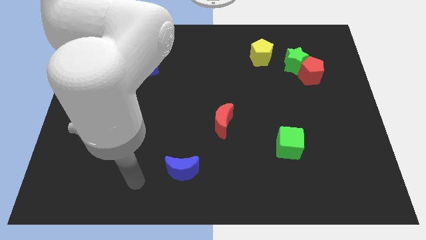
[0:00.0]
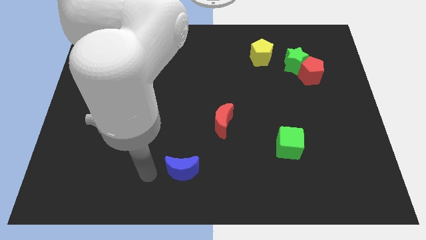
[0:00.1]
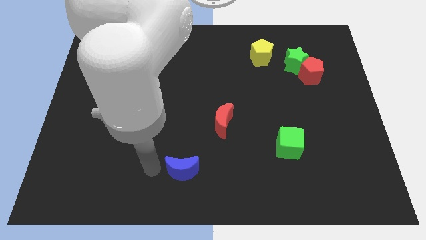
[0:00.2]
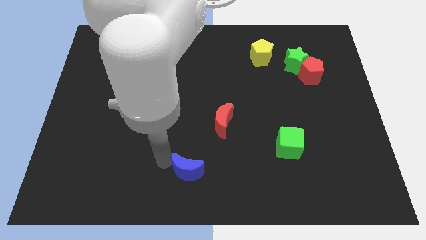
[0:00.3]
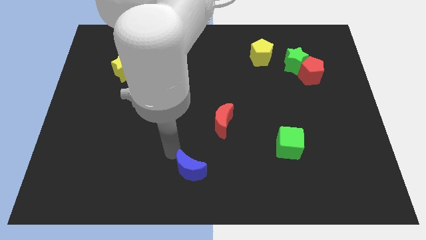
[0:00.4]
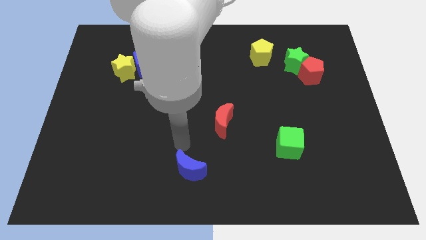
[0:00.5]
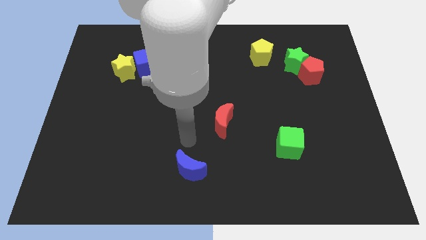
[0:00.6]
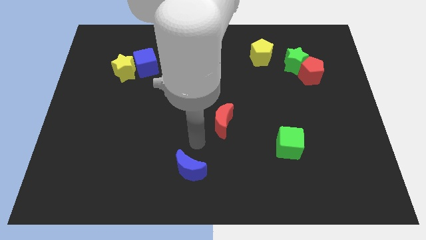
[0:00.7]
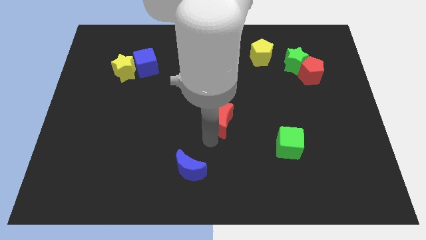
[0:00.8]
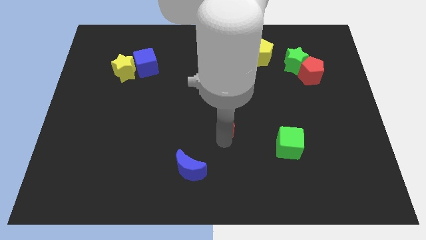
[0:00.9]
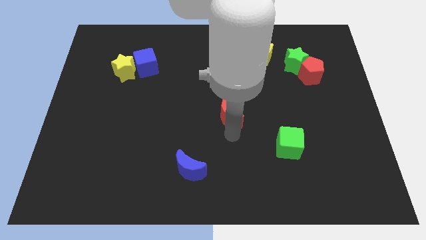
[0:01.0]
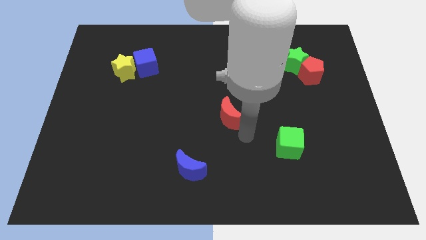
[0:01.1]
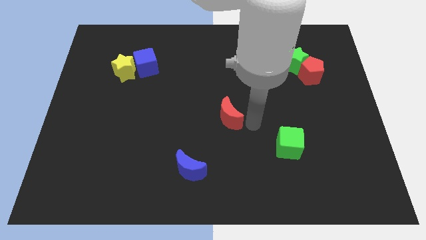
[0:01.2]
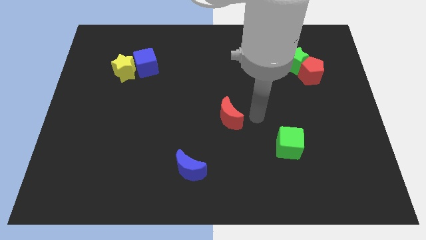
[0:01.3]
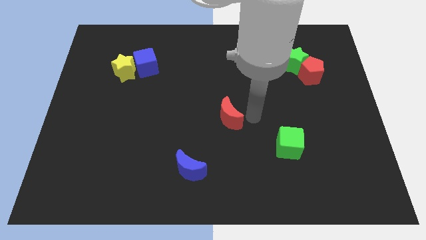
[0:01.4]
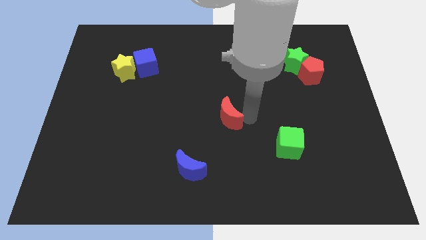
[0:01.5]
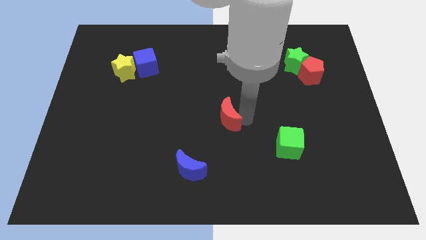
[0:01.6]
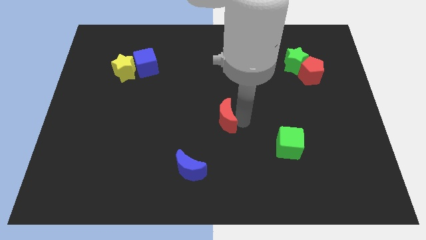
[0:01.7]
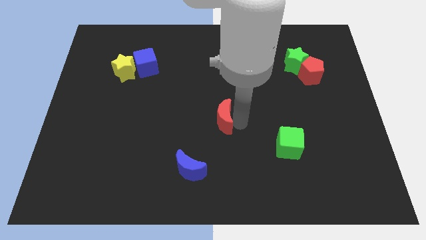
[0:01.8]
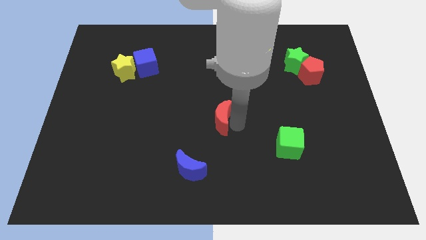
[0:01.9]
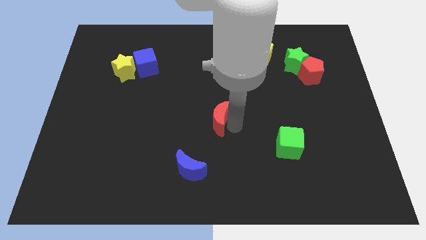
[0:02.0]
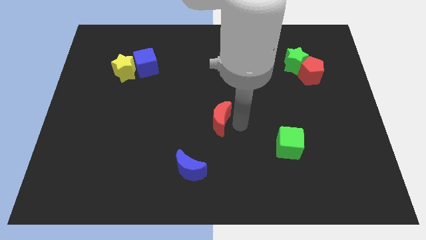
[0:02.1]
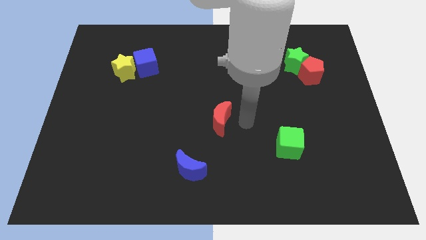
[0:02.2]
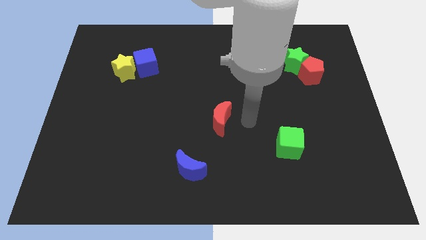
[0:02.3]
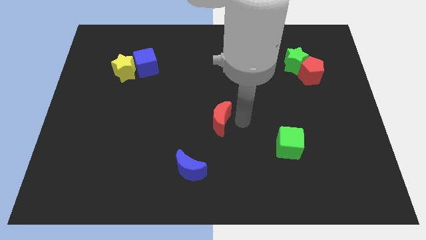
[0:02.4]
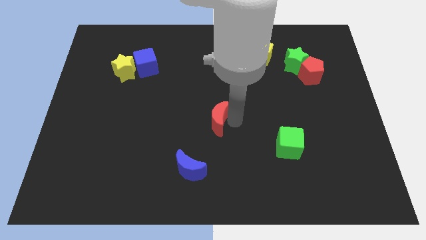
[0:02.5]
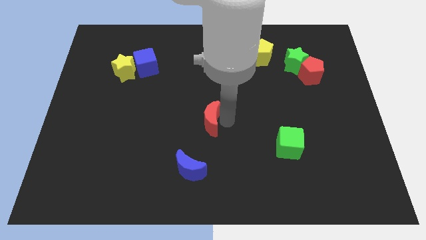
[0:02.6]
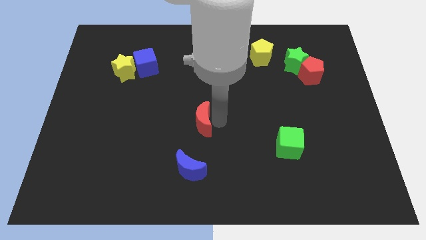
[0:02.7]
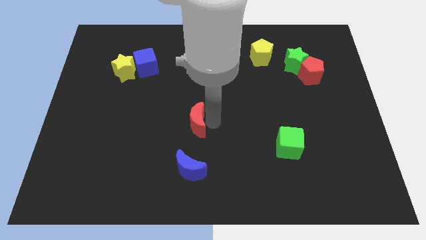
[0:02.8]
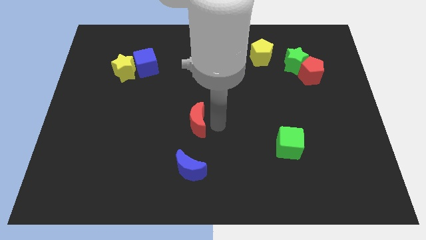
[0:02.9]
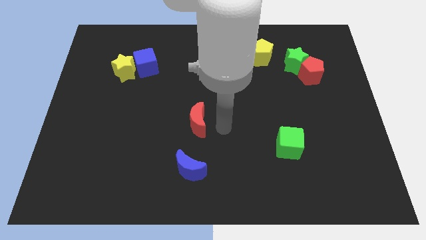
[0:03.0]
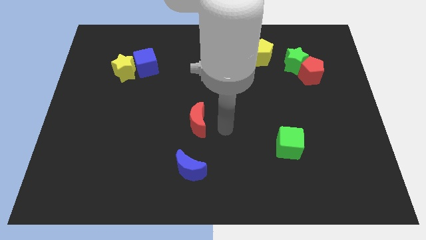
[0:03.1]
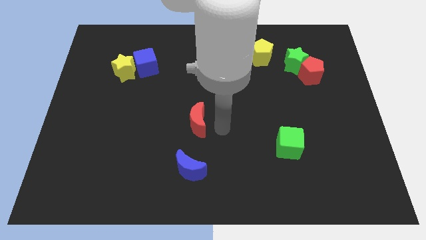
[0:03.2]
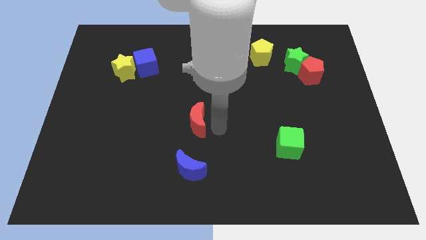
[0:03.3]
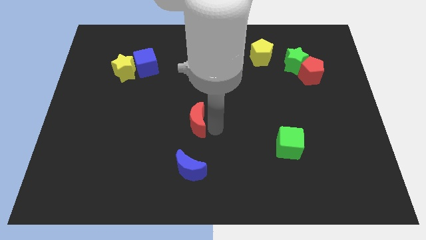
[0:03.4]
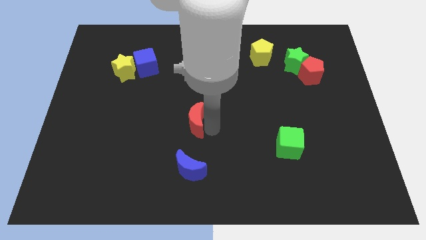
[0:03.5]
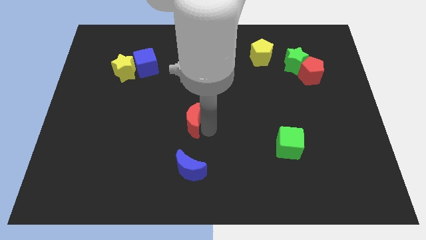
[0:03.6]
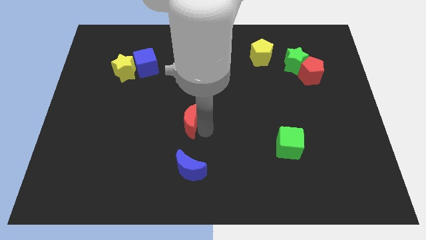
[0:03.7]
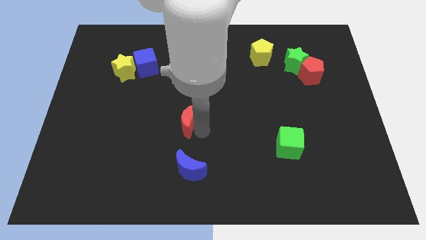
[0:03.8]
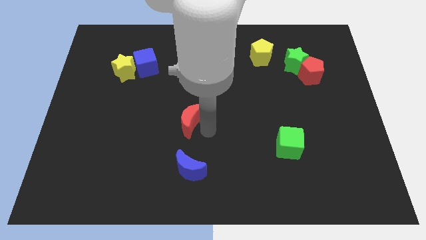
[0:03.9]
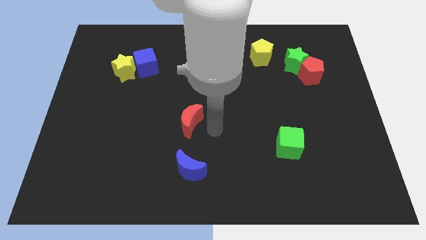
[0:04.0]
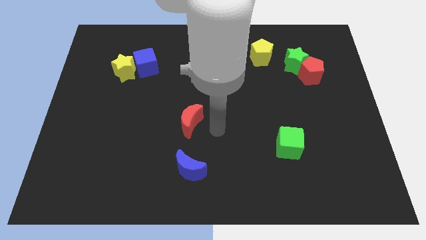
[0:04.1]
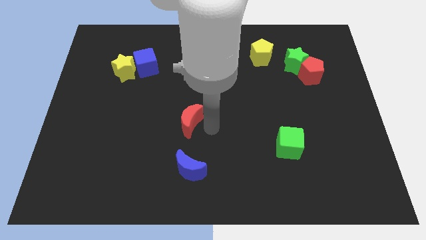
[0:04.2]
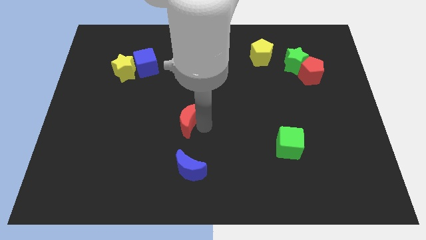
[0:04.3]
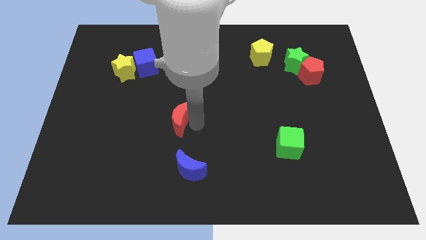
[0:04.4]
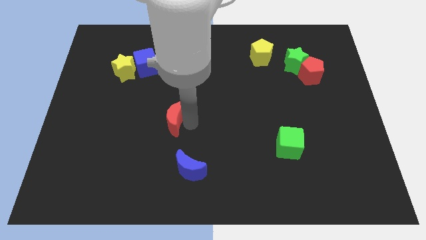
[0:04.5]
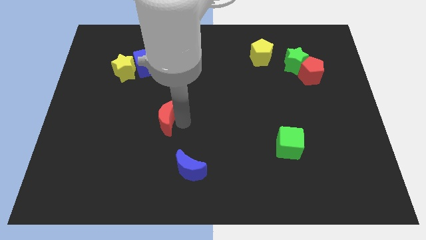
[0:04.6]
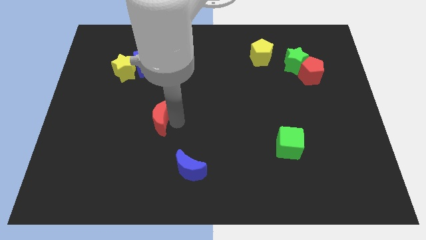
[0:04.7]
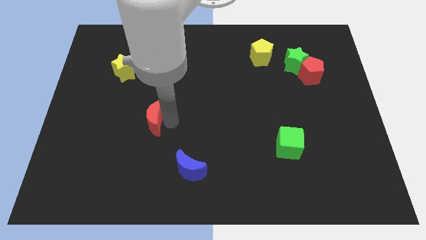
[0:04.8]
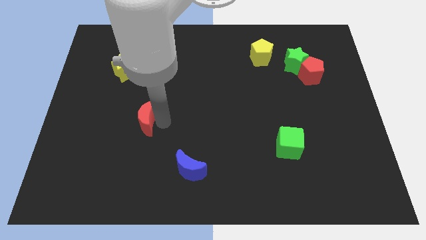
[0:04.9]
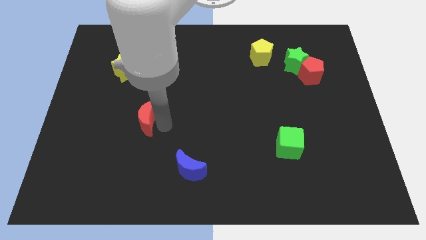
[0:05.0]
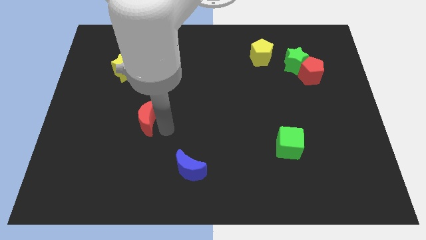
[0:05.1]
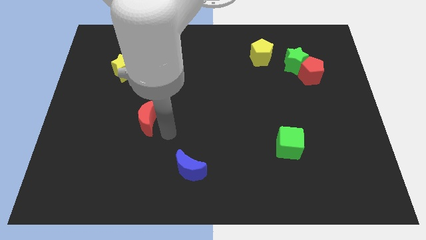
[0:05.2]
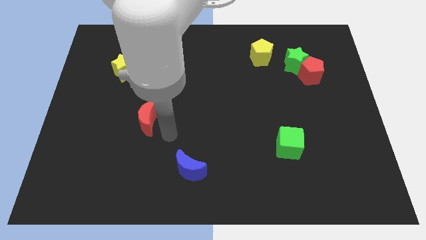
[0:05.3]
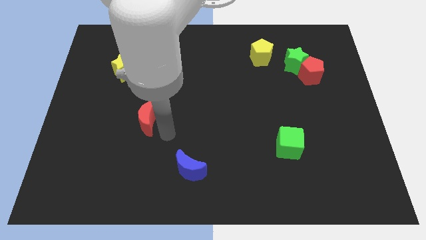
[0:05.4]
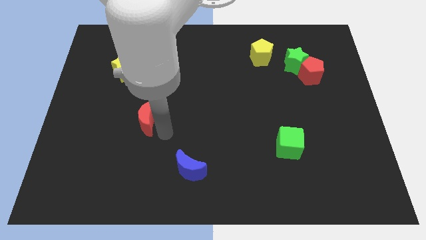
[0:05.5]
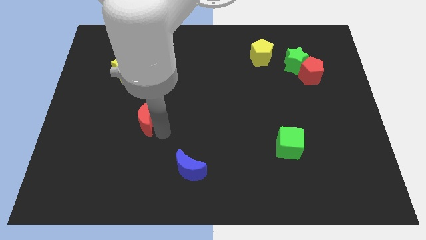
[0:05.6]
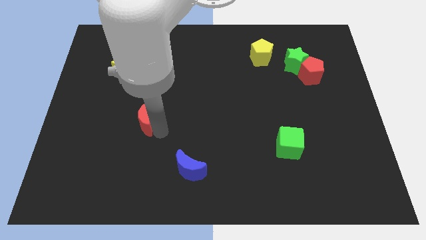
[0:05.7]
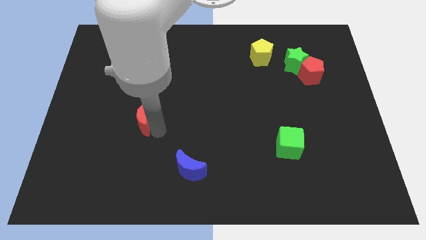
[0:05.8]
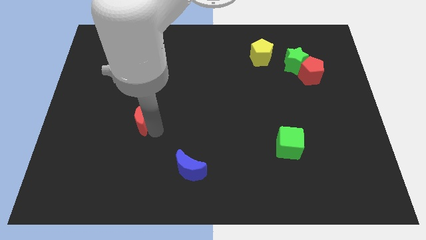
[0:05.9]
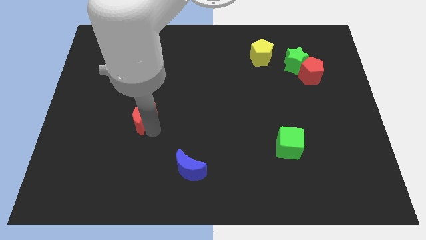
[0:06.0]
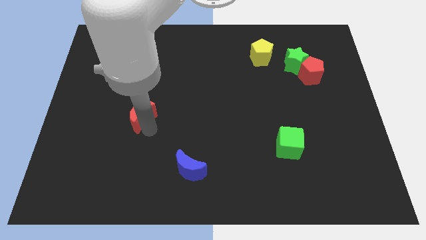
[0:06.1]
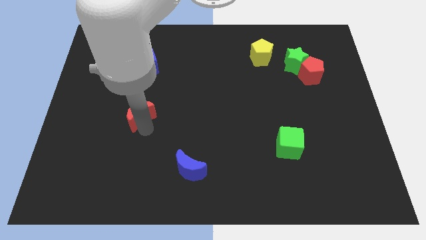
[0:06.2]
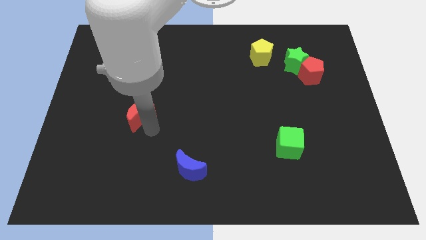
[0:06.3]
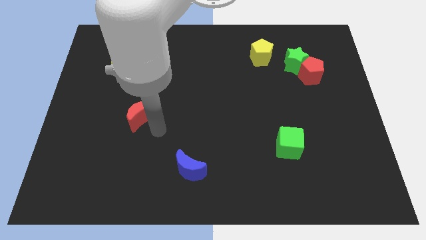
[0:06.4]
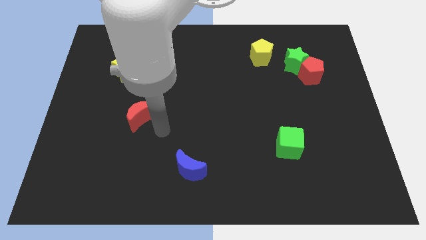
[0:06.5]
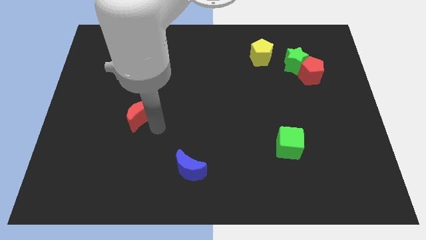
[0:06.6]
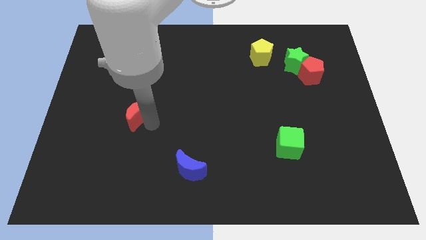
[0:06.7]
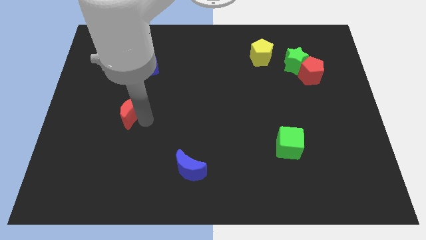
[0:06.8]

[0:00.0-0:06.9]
put the red moon below the yellow star
